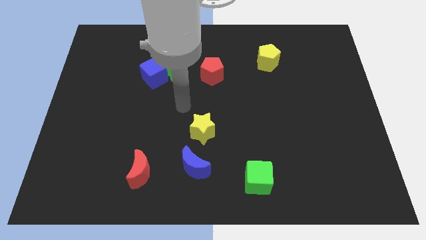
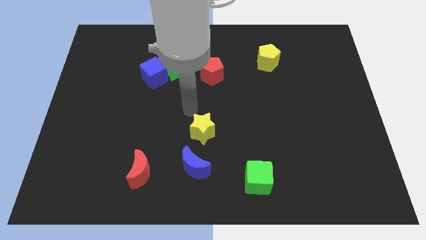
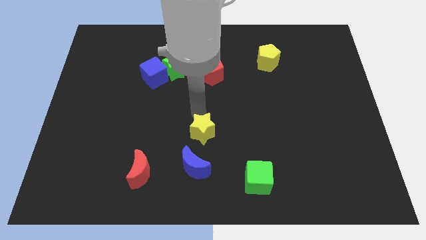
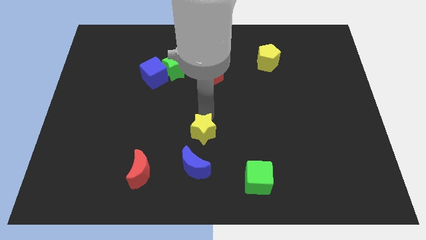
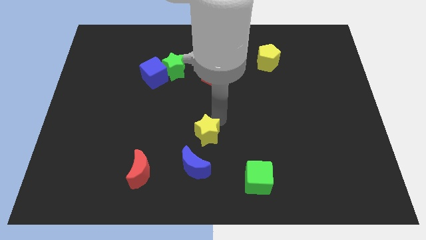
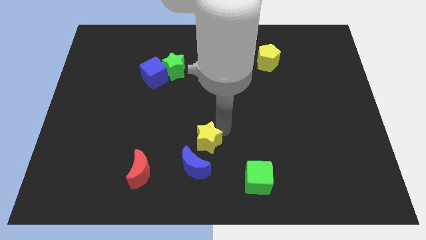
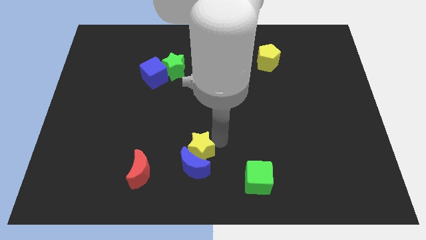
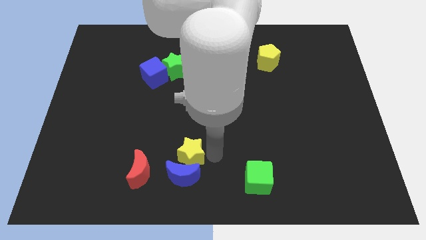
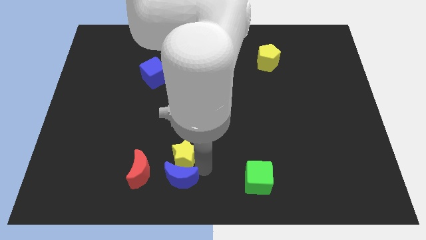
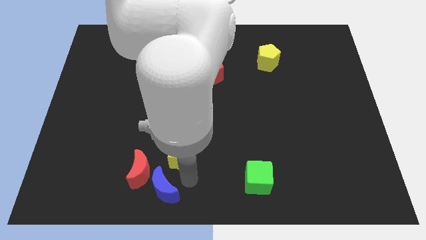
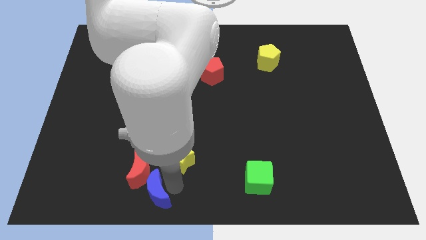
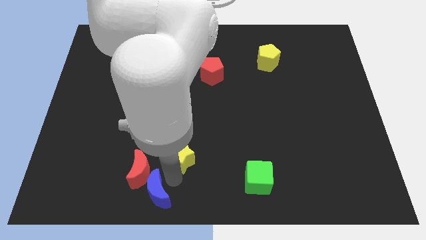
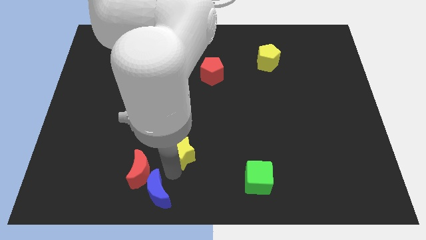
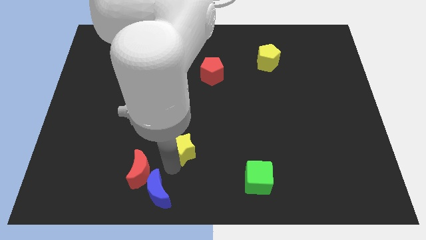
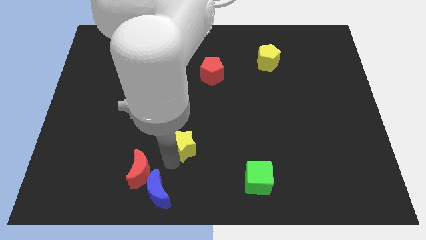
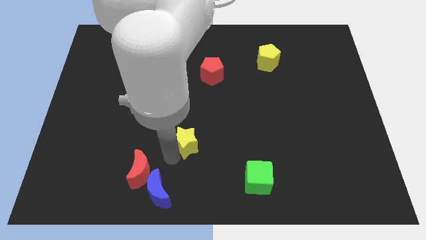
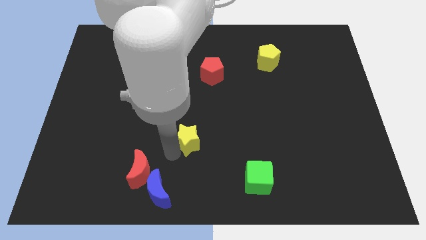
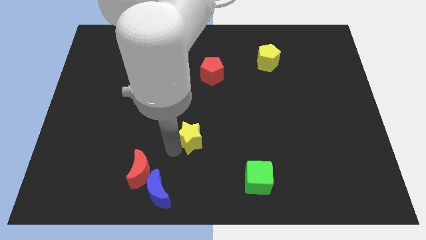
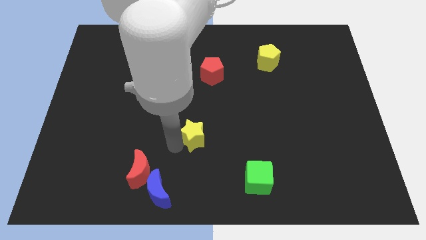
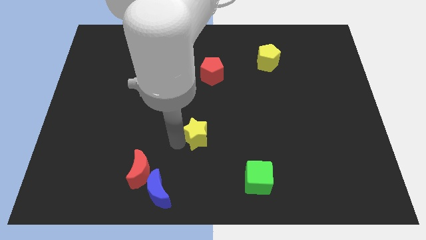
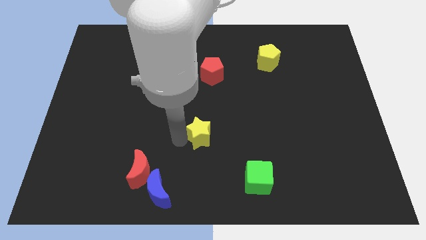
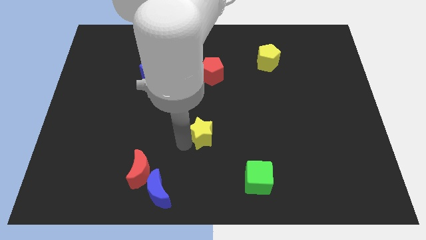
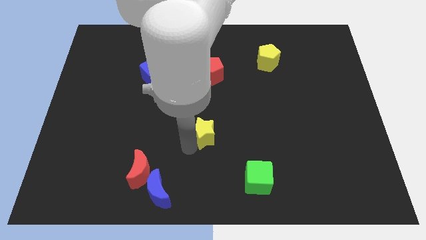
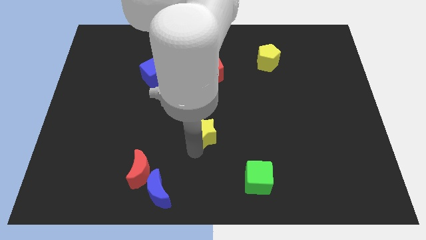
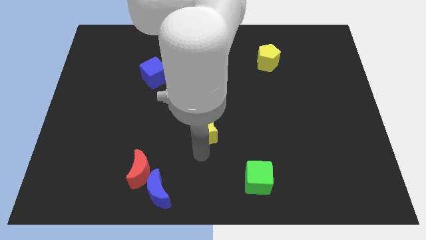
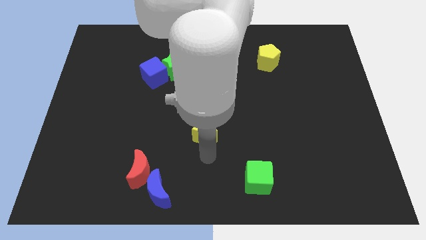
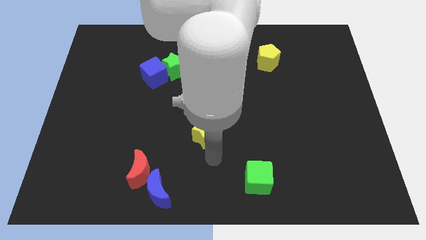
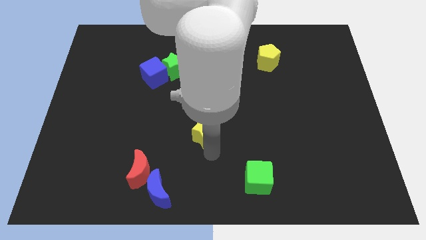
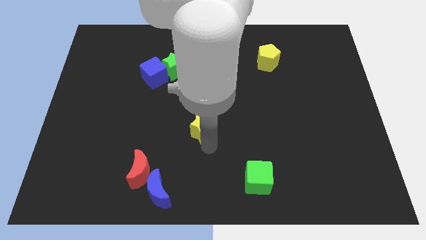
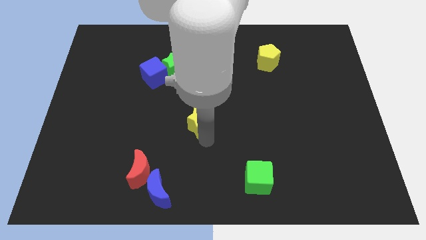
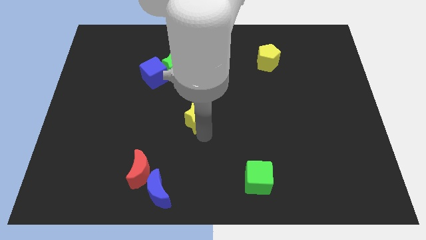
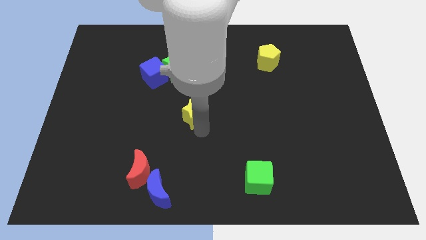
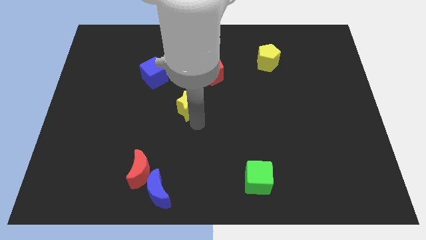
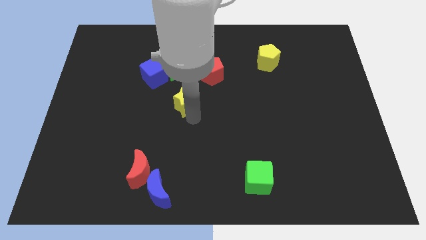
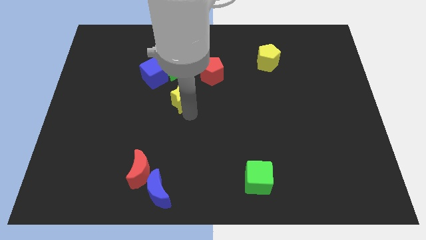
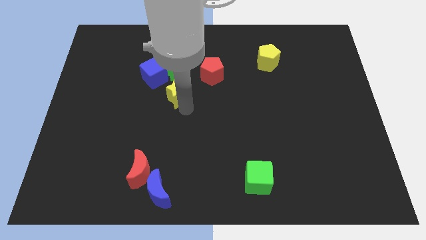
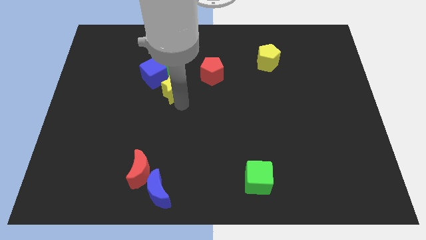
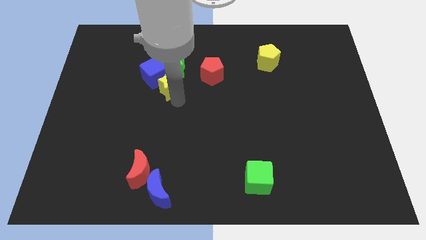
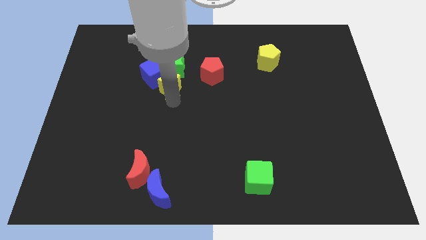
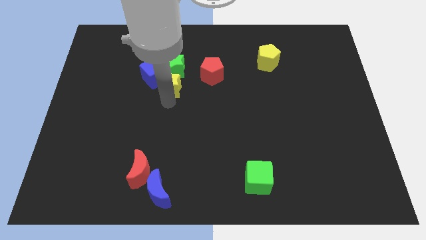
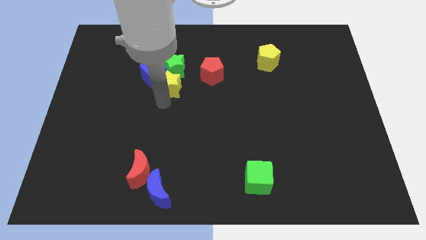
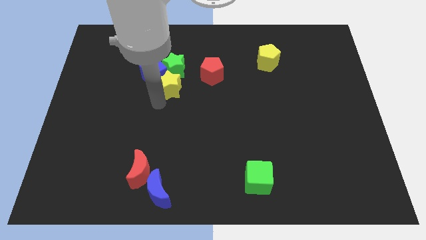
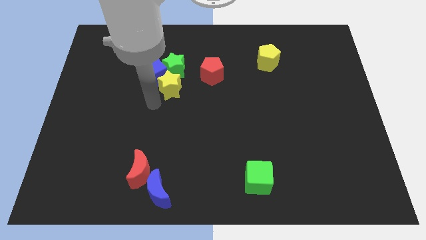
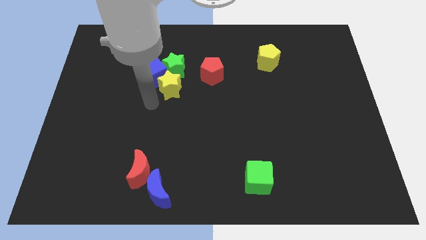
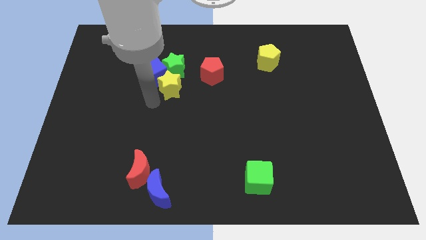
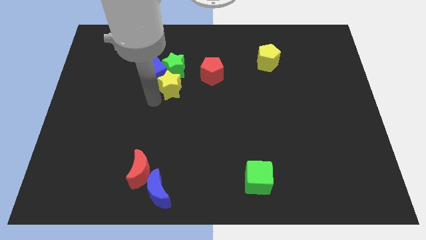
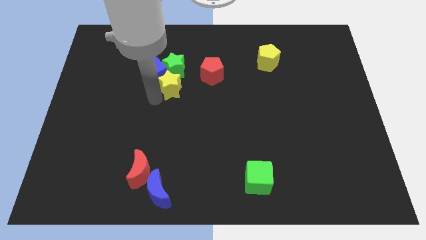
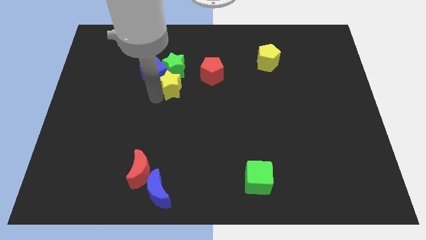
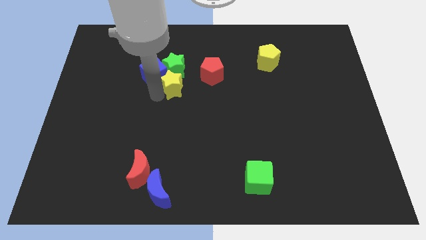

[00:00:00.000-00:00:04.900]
push the yellow star close to the green star

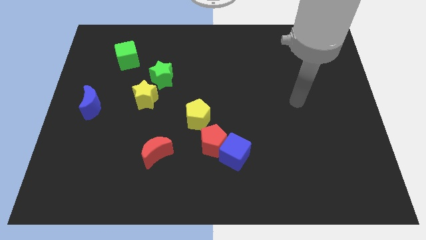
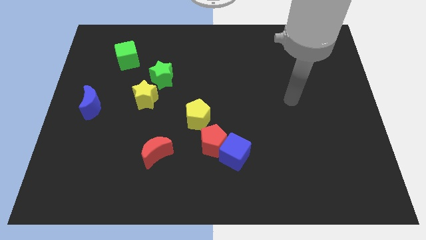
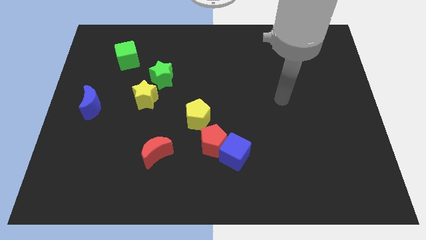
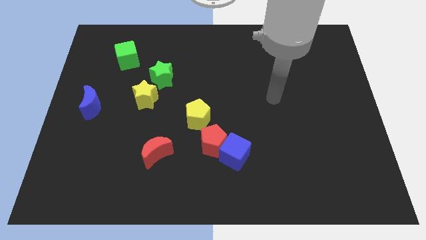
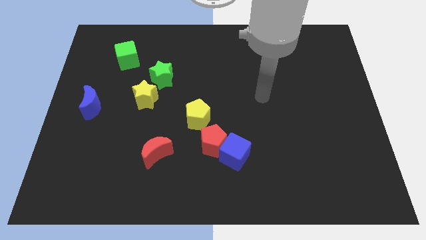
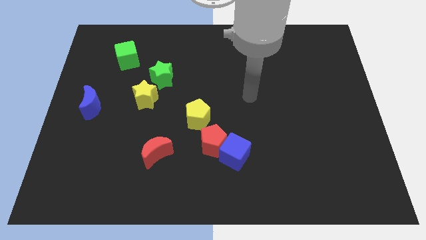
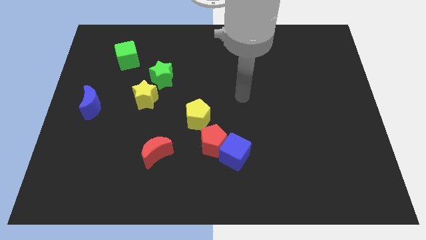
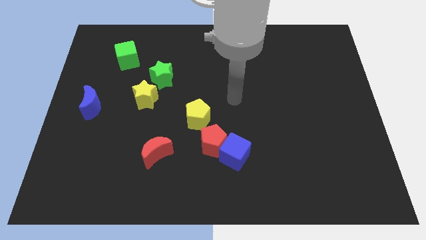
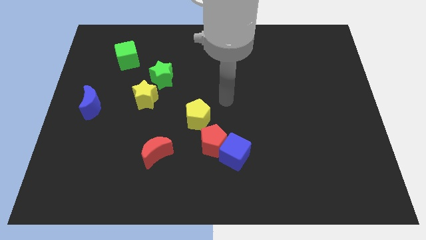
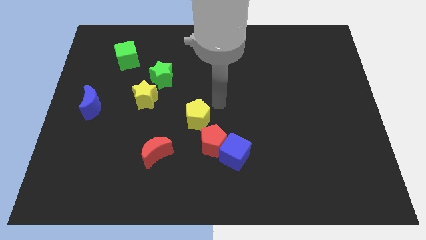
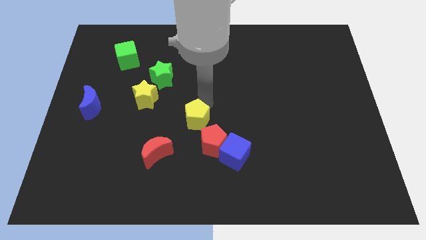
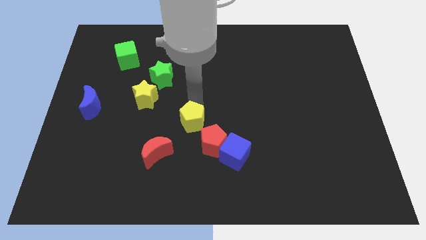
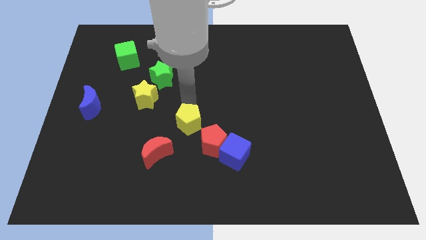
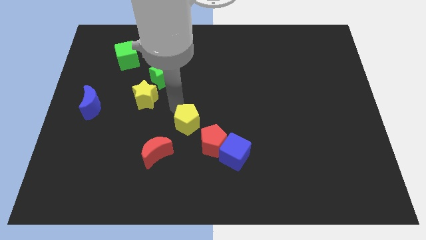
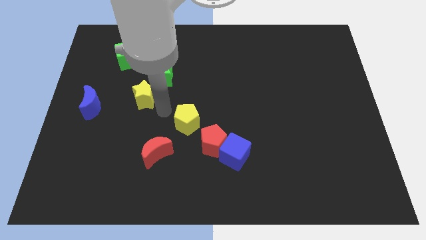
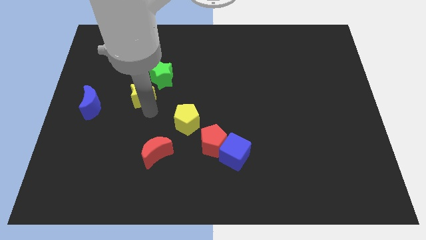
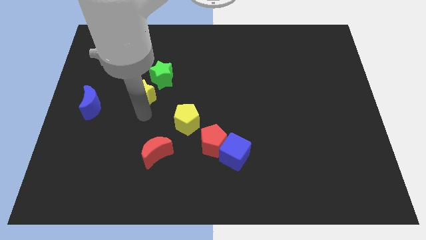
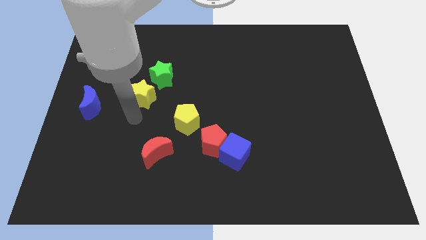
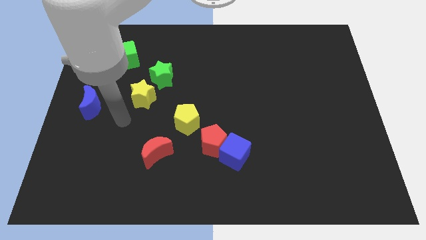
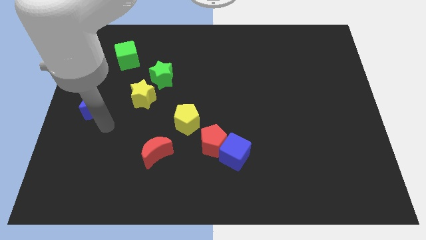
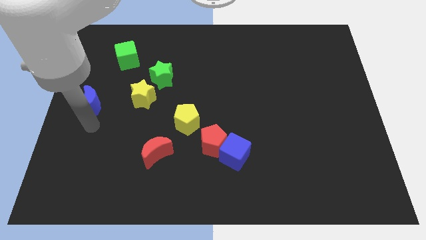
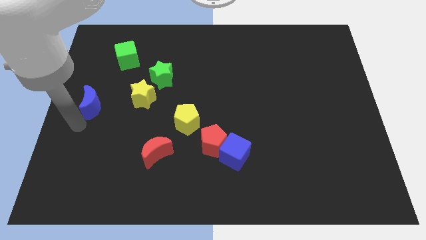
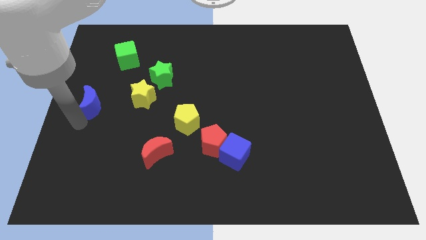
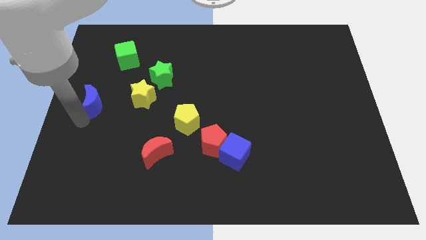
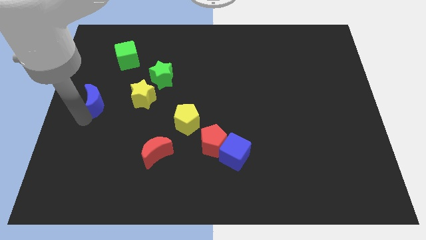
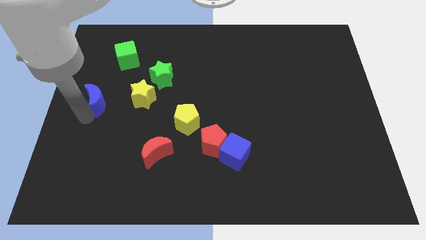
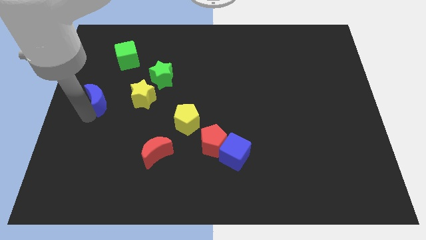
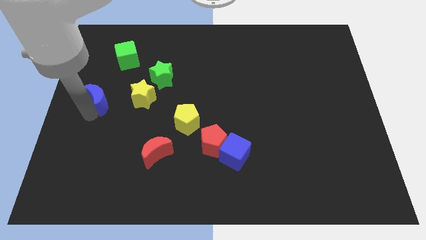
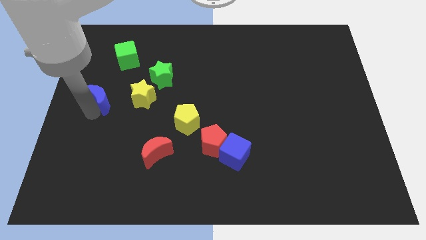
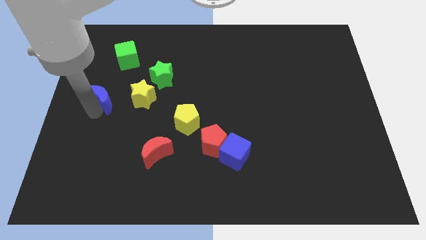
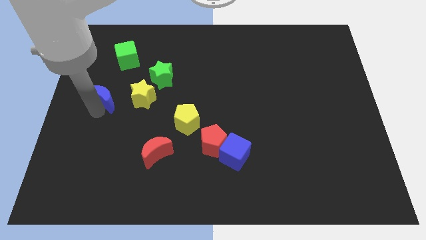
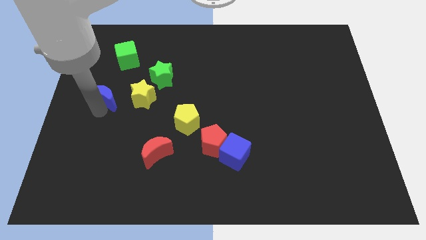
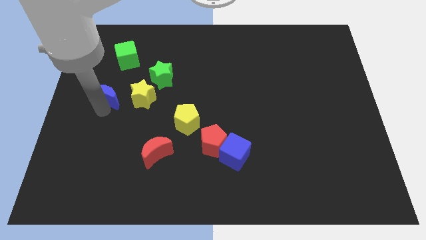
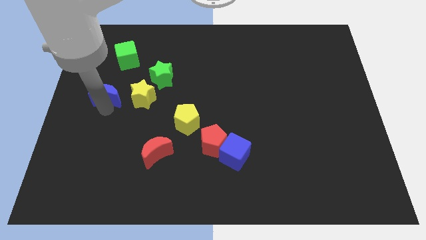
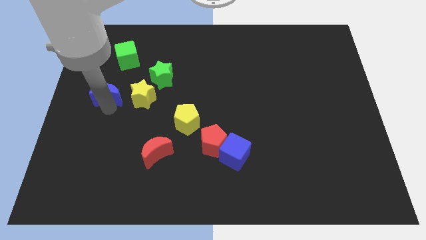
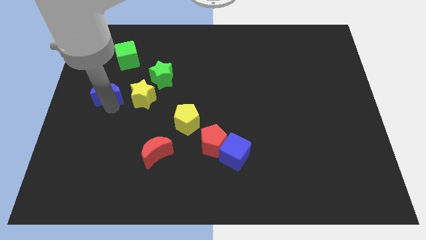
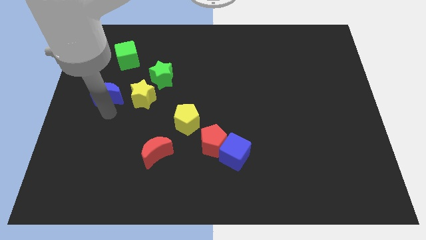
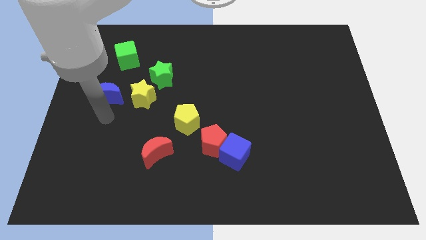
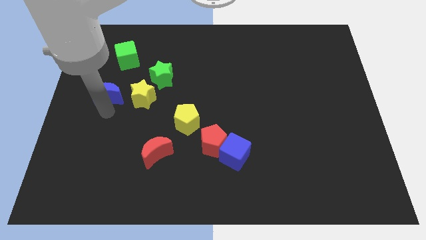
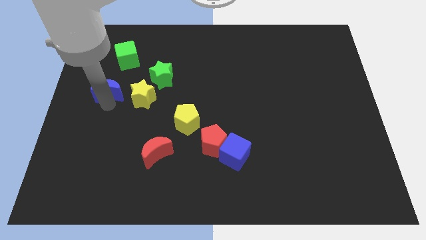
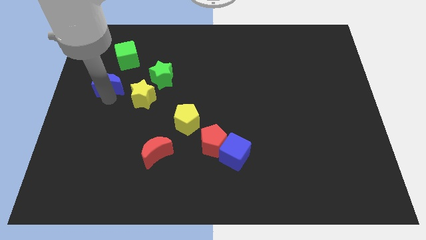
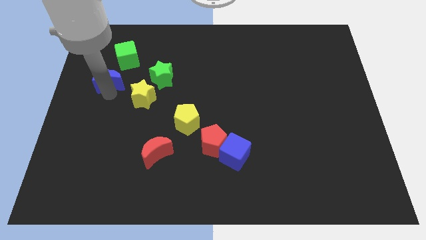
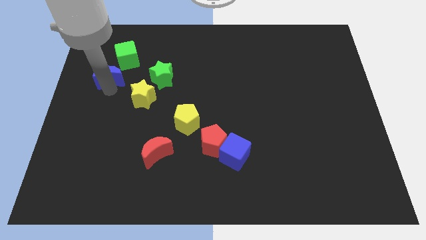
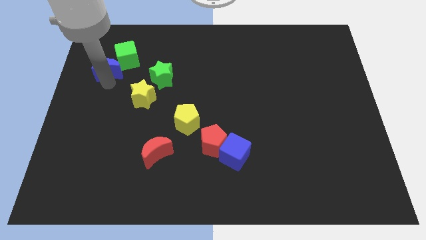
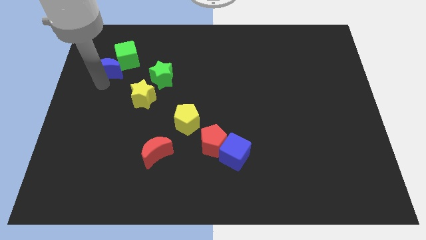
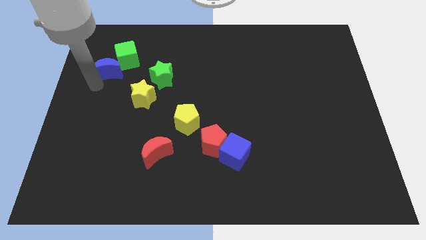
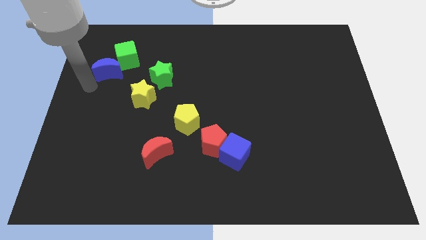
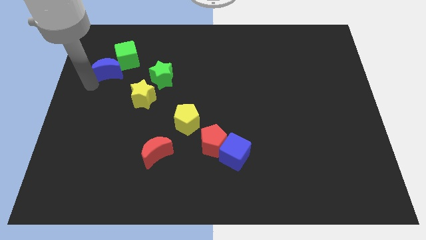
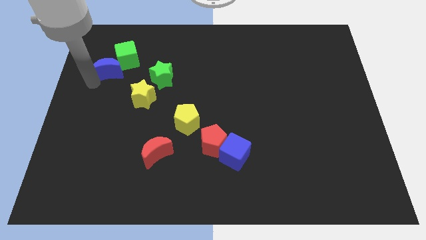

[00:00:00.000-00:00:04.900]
slide the blue moon to the green cube
